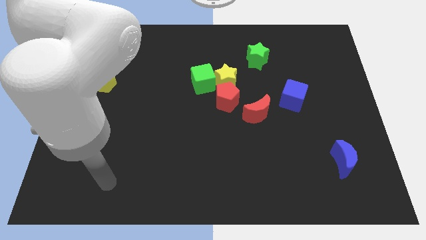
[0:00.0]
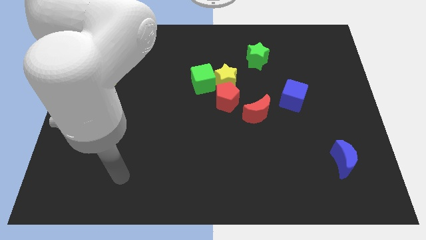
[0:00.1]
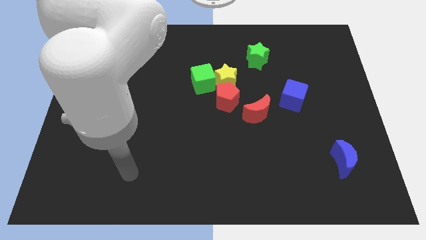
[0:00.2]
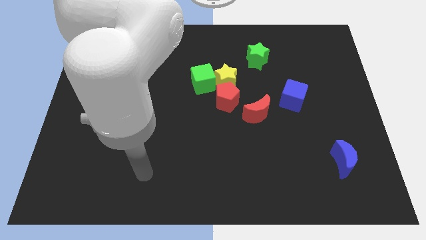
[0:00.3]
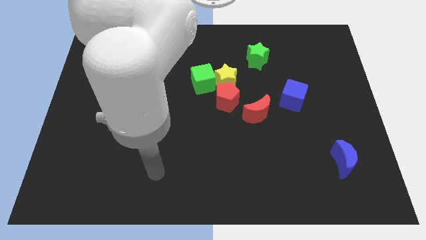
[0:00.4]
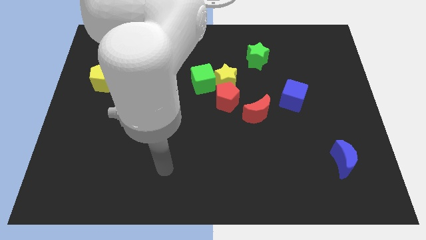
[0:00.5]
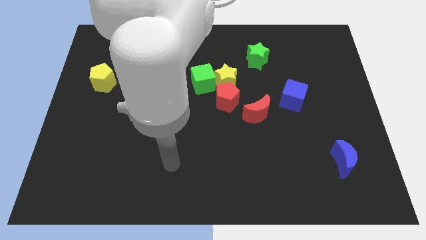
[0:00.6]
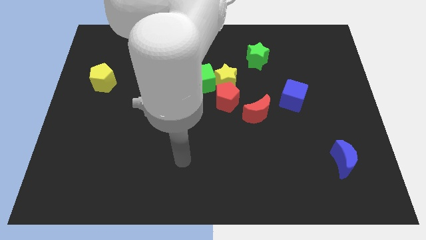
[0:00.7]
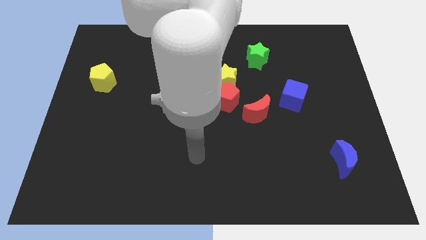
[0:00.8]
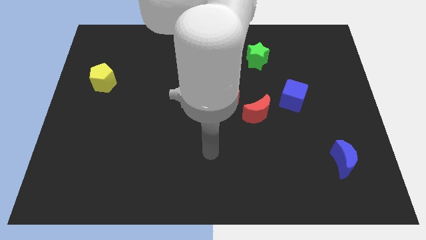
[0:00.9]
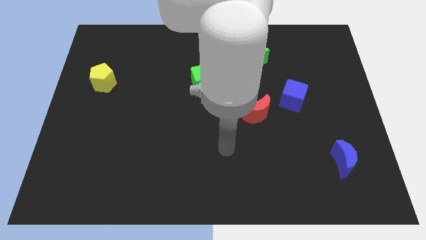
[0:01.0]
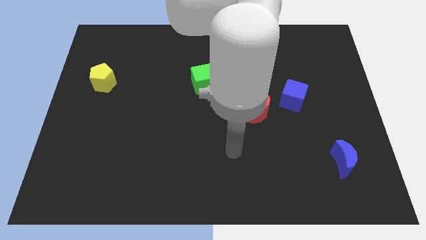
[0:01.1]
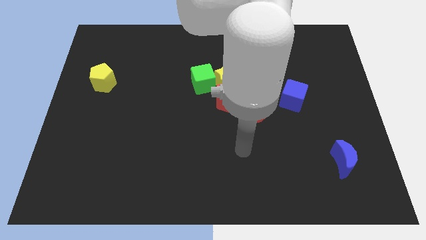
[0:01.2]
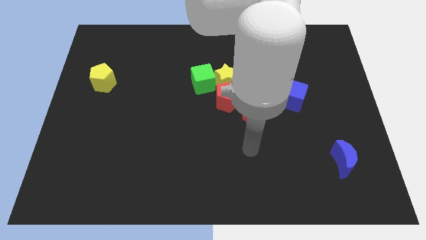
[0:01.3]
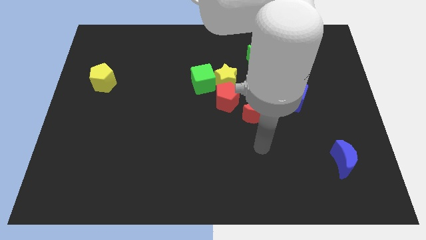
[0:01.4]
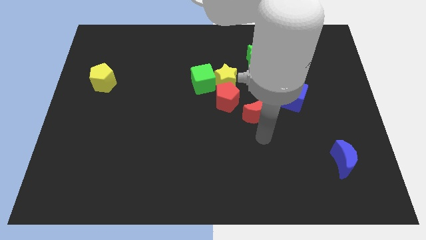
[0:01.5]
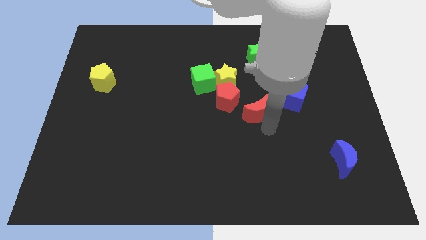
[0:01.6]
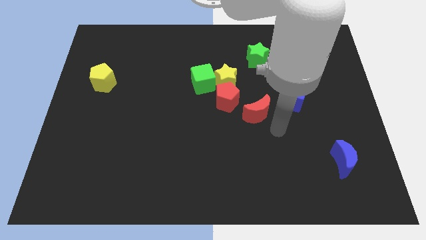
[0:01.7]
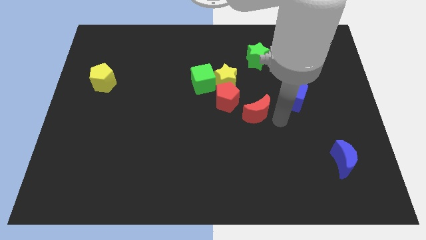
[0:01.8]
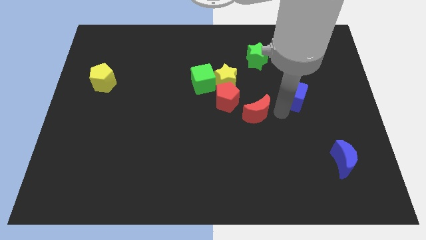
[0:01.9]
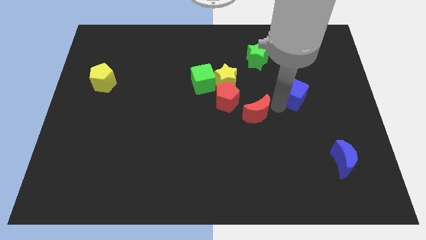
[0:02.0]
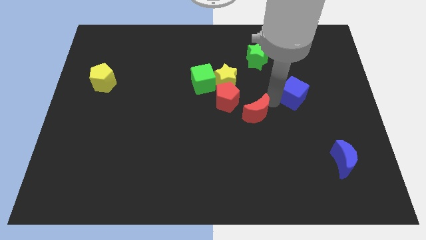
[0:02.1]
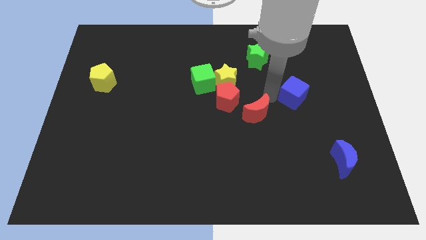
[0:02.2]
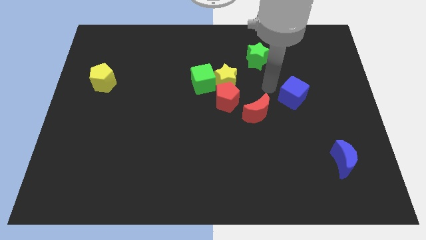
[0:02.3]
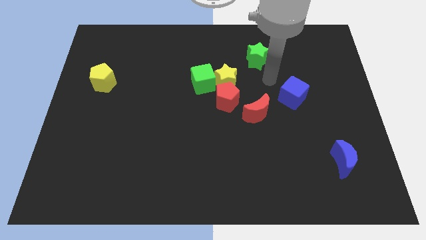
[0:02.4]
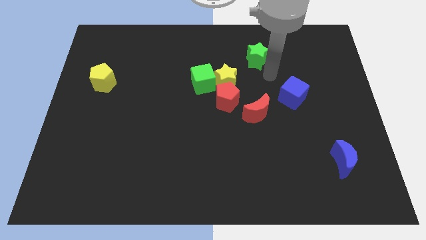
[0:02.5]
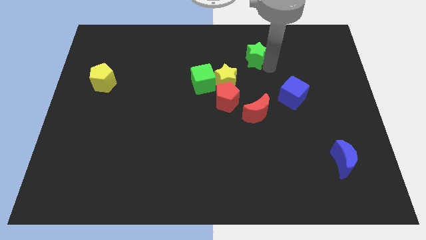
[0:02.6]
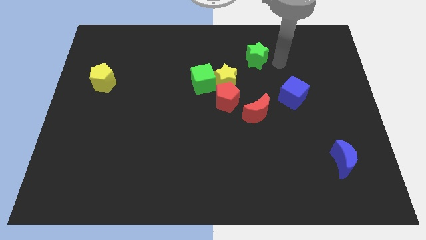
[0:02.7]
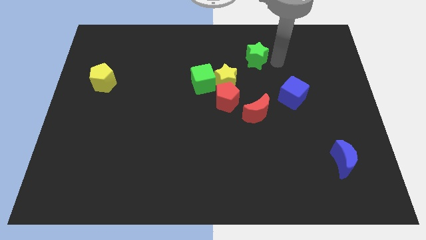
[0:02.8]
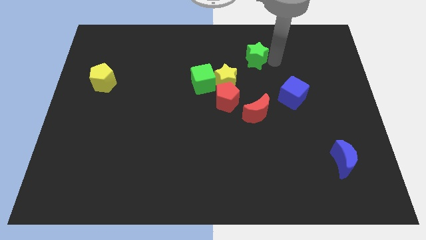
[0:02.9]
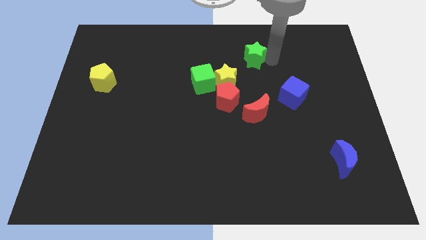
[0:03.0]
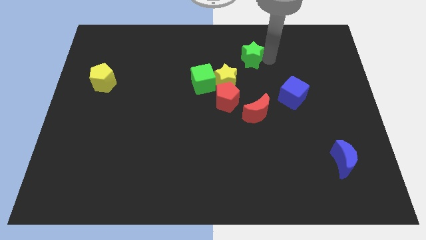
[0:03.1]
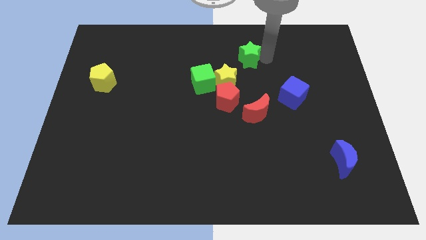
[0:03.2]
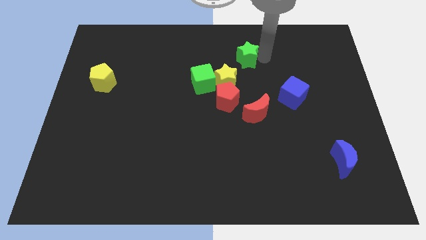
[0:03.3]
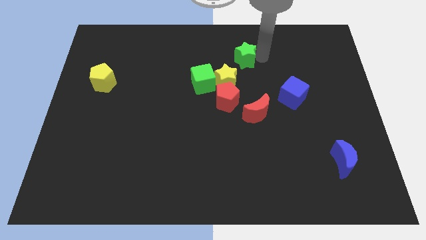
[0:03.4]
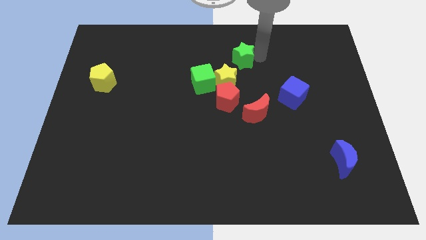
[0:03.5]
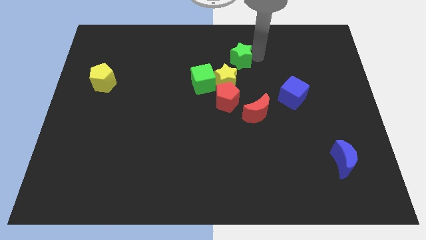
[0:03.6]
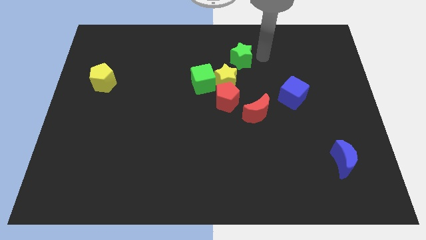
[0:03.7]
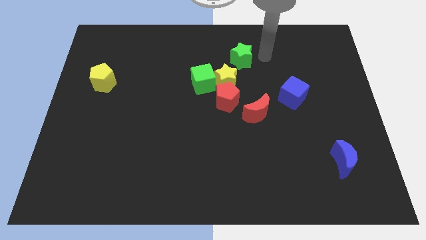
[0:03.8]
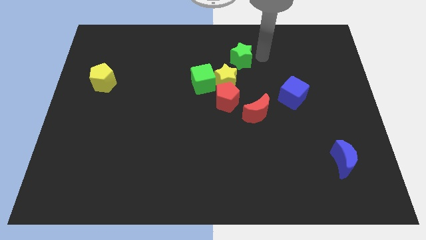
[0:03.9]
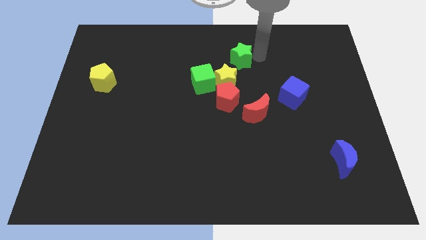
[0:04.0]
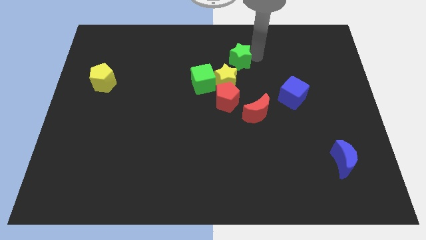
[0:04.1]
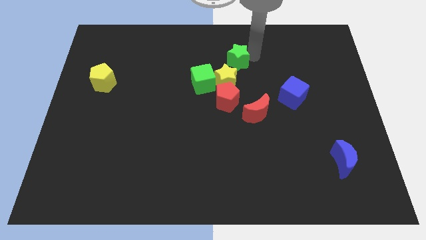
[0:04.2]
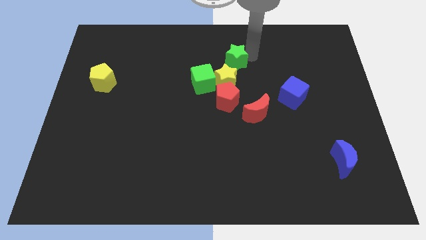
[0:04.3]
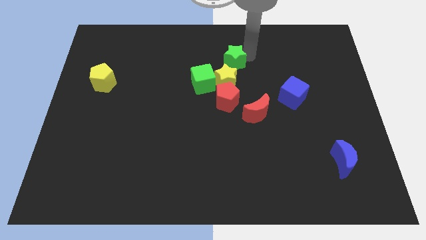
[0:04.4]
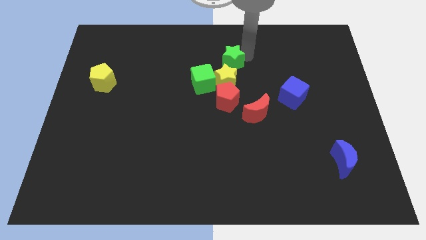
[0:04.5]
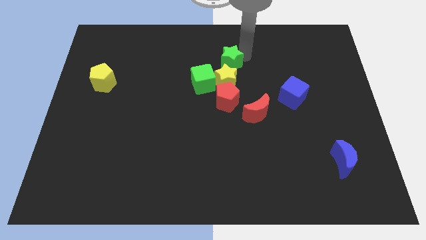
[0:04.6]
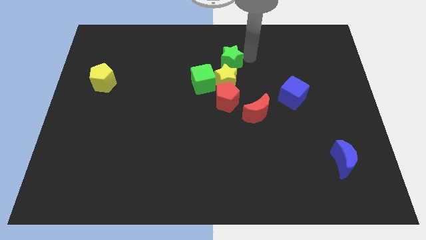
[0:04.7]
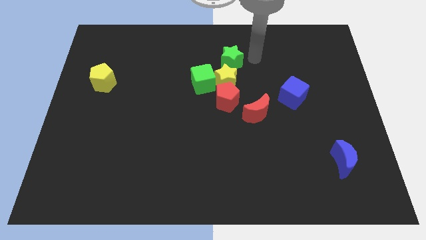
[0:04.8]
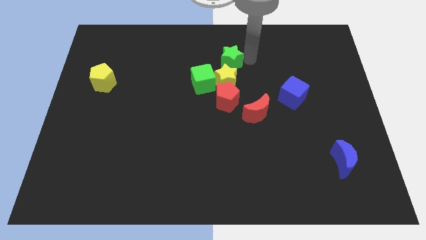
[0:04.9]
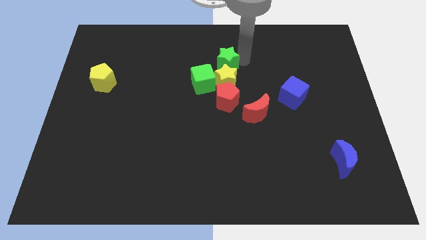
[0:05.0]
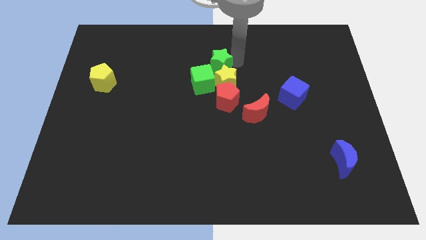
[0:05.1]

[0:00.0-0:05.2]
slide the green star slightly diagonally downwards and to the left

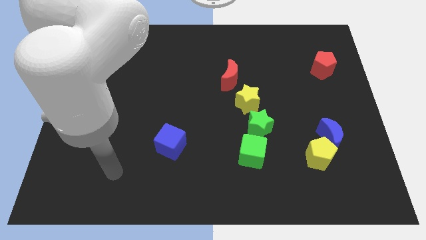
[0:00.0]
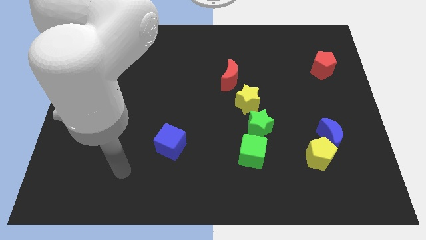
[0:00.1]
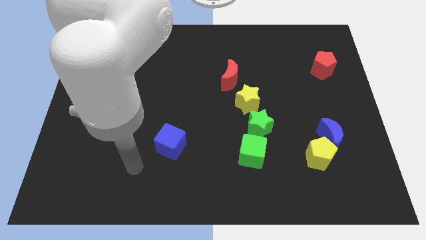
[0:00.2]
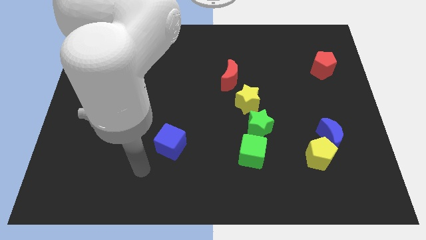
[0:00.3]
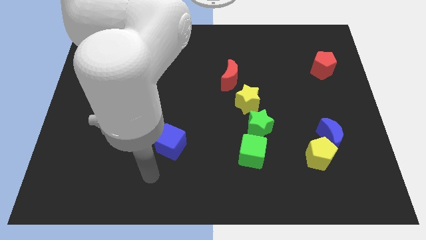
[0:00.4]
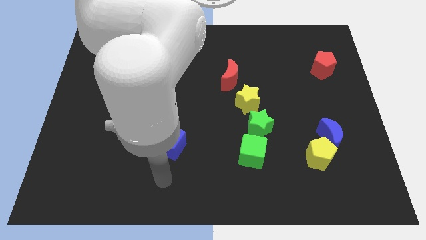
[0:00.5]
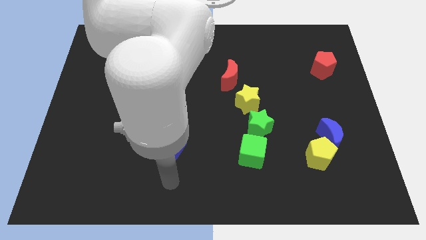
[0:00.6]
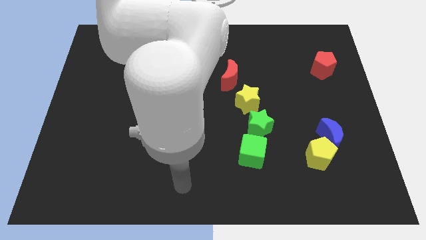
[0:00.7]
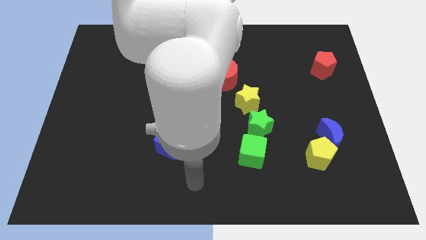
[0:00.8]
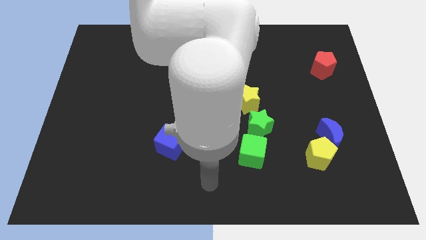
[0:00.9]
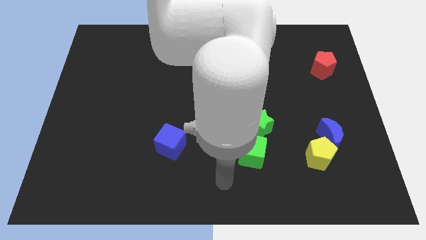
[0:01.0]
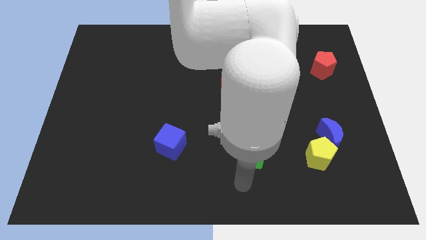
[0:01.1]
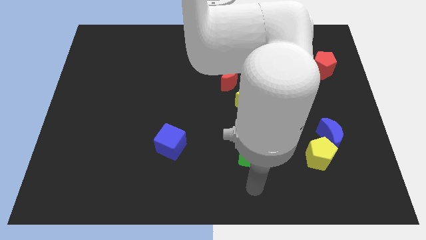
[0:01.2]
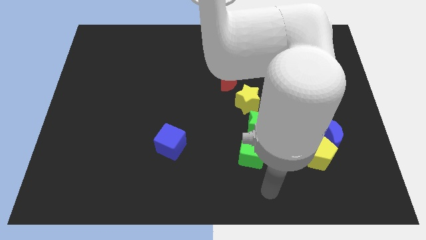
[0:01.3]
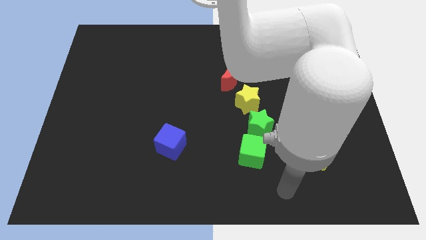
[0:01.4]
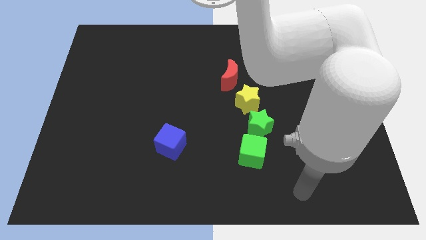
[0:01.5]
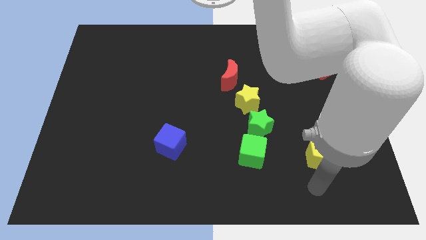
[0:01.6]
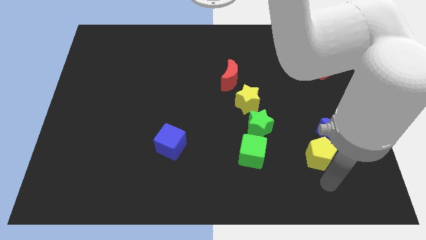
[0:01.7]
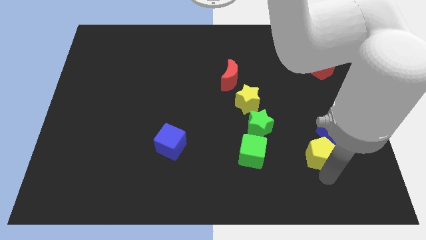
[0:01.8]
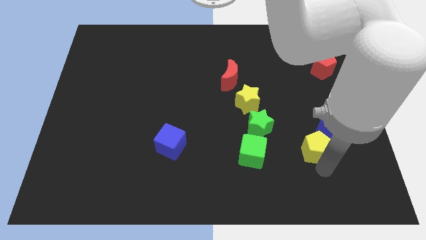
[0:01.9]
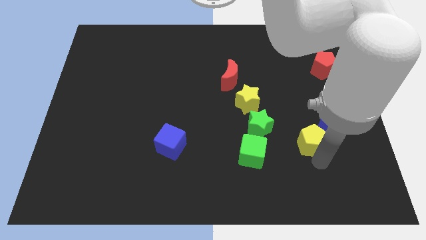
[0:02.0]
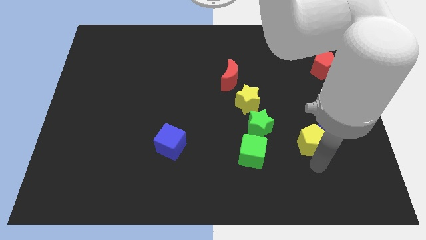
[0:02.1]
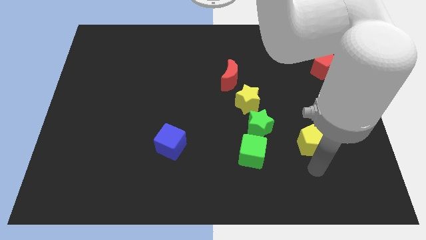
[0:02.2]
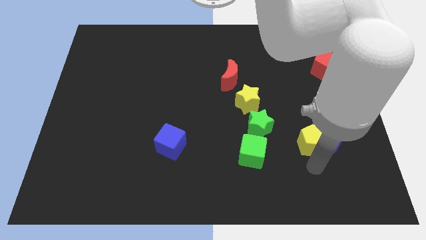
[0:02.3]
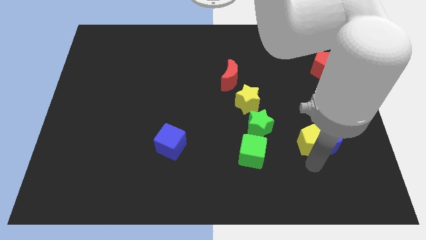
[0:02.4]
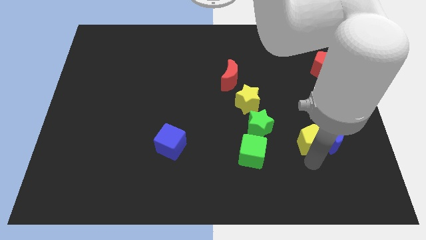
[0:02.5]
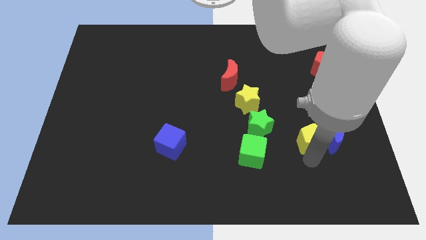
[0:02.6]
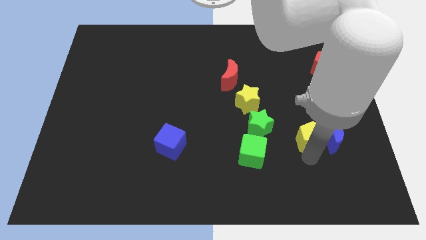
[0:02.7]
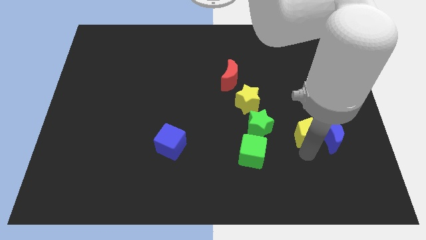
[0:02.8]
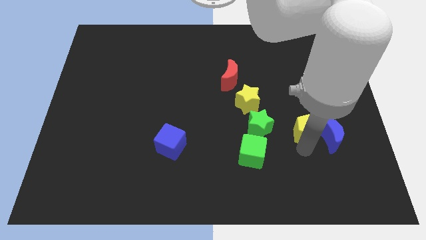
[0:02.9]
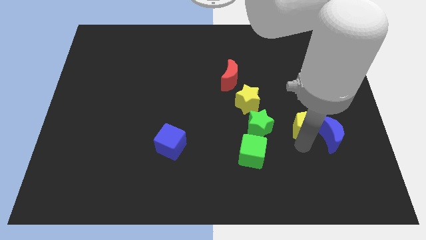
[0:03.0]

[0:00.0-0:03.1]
push the yellow pentagon up a little
